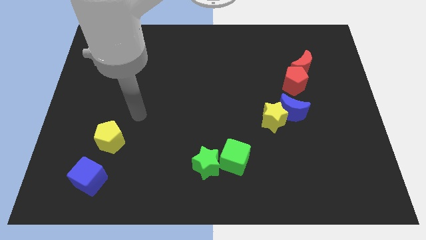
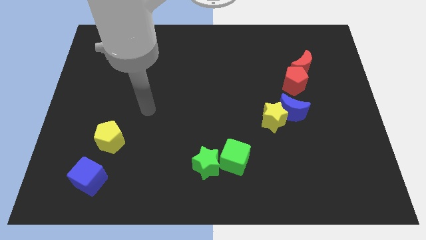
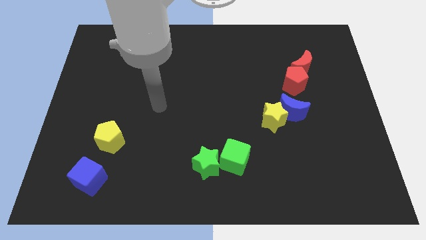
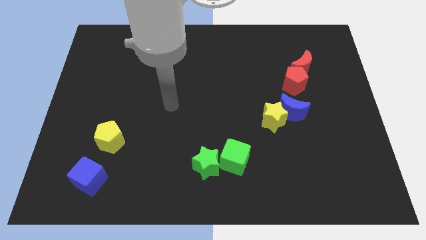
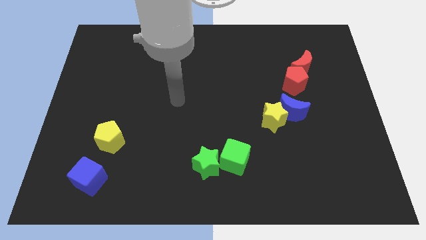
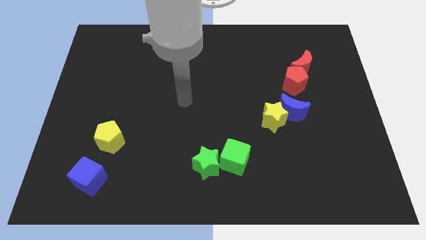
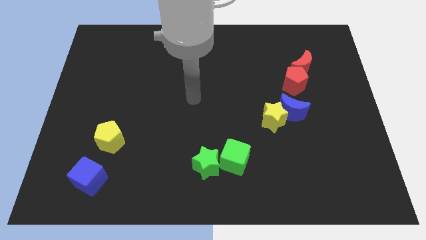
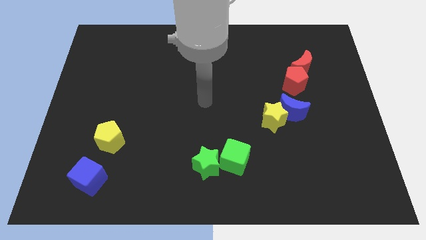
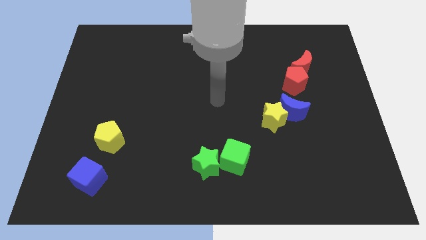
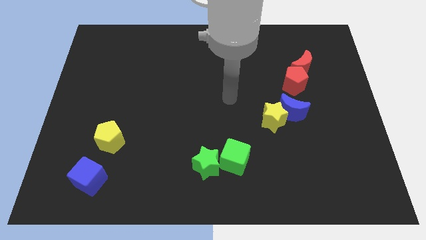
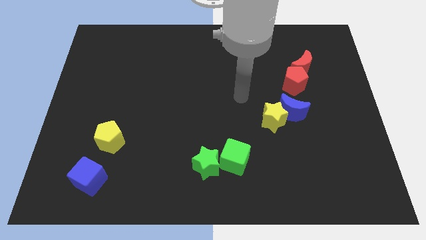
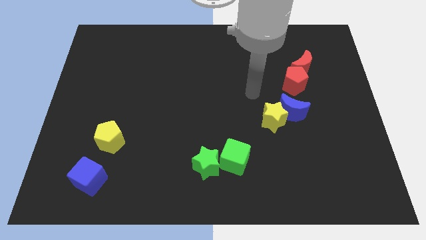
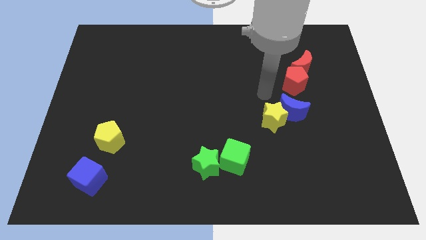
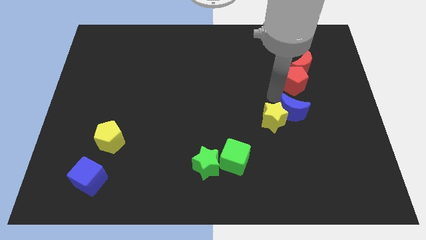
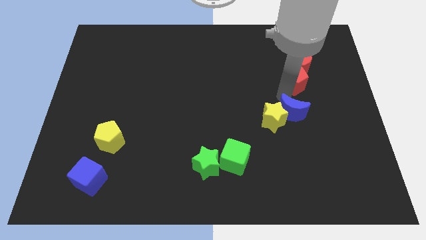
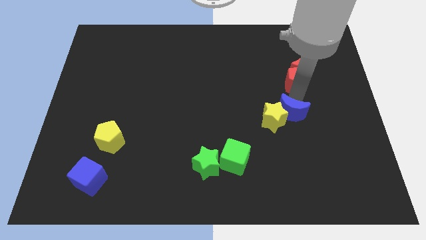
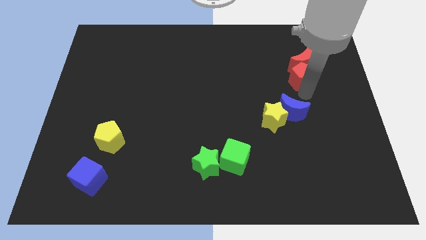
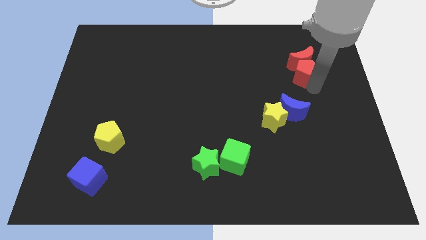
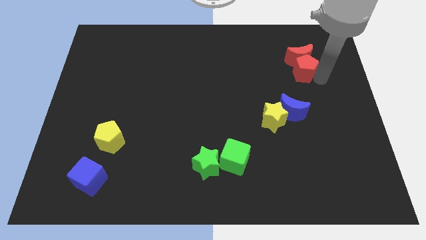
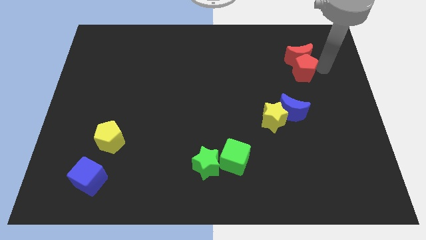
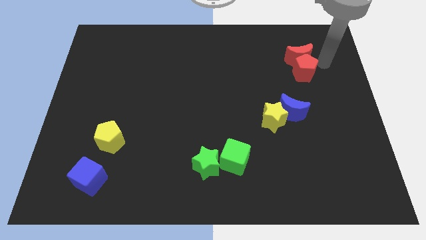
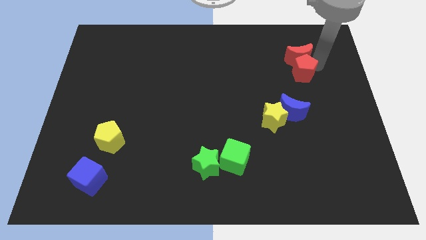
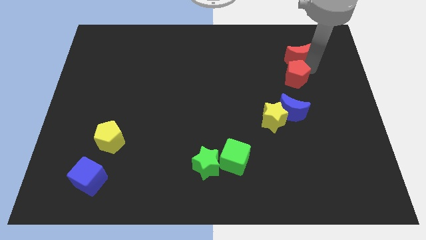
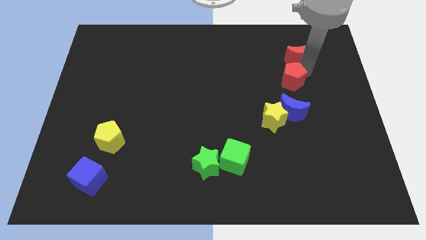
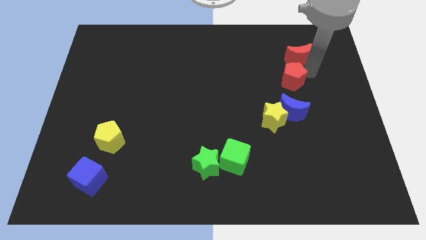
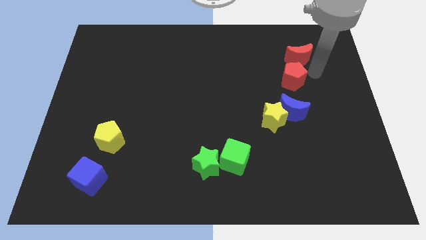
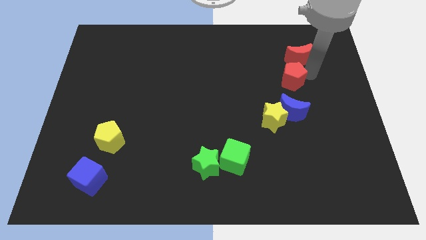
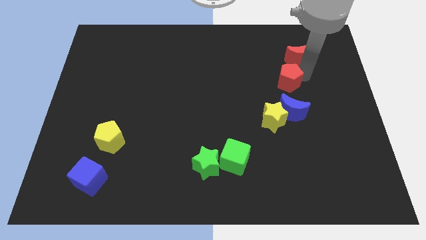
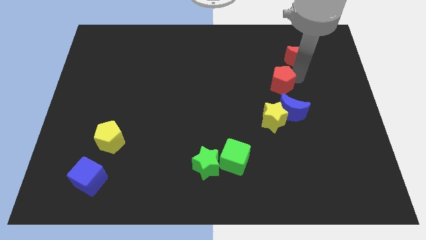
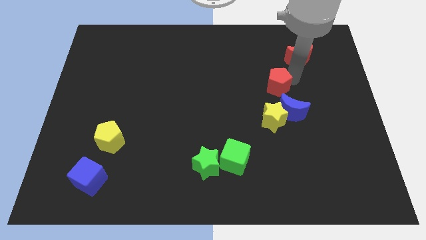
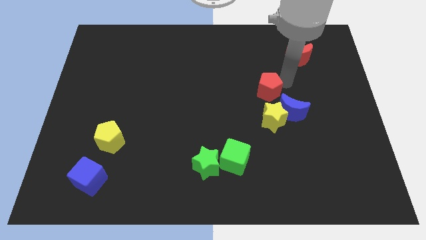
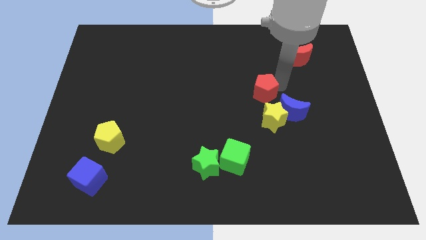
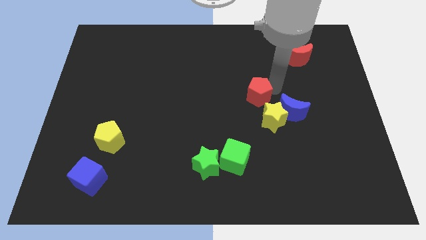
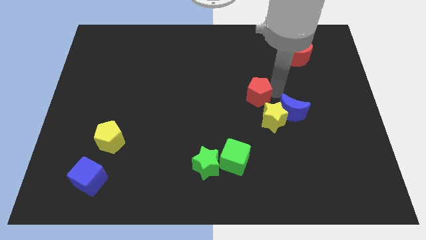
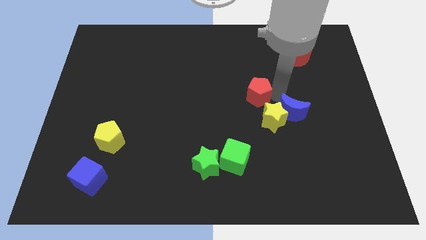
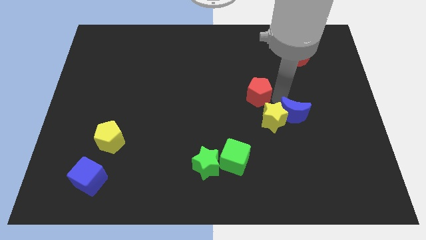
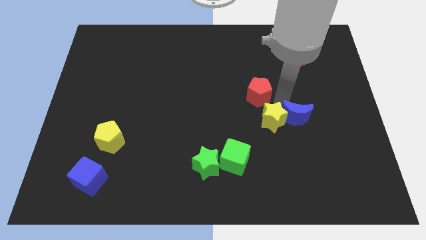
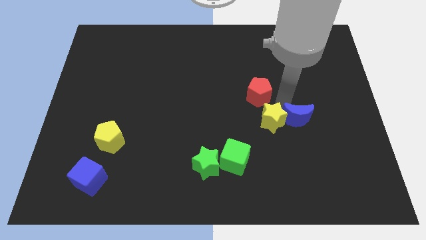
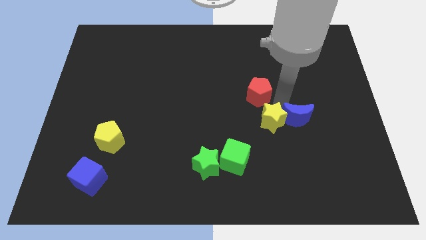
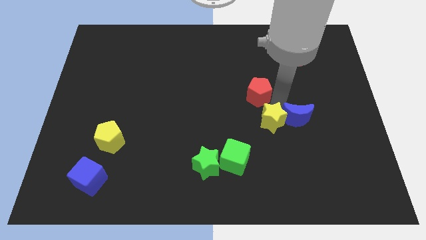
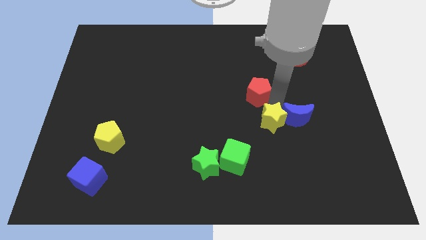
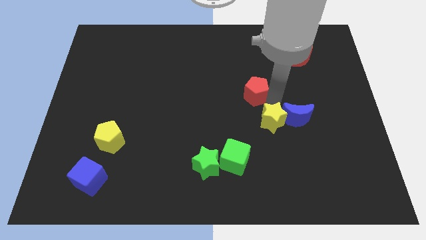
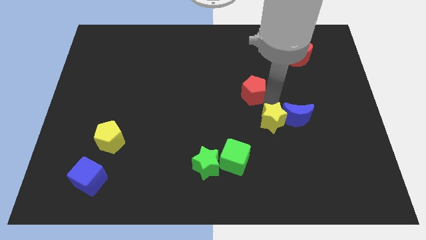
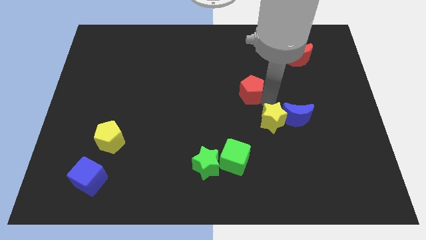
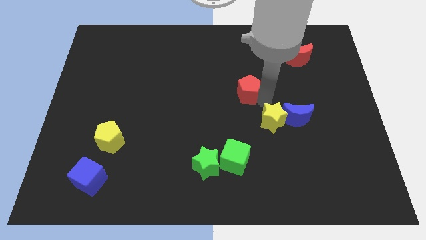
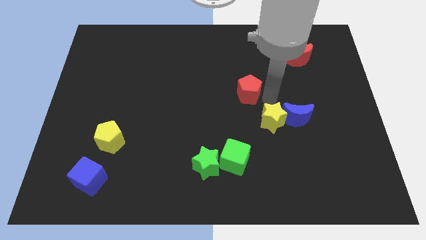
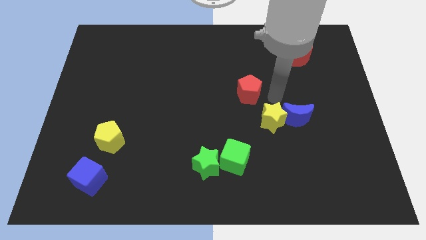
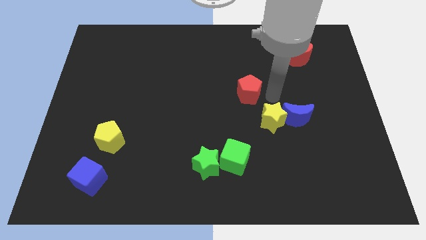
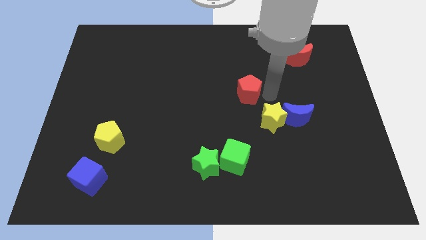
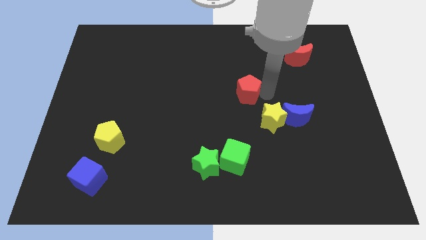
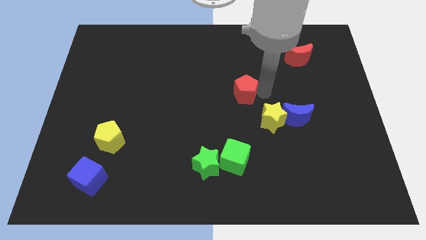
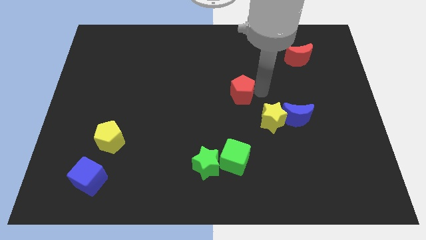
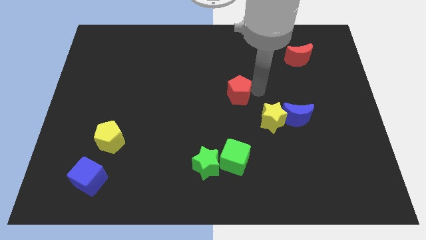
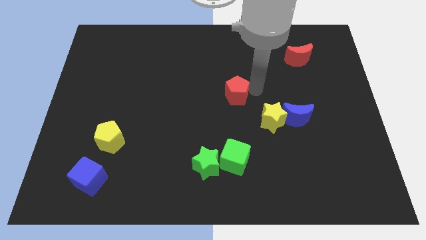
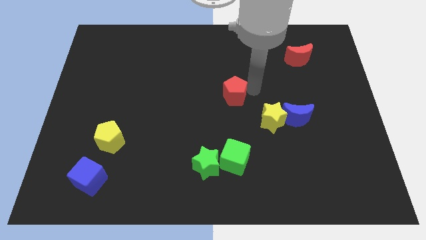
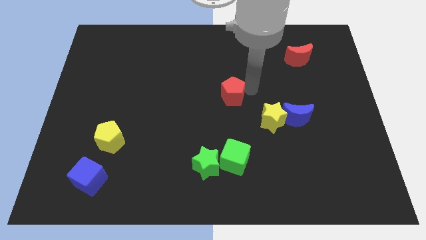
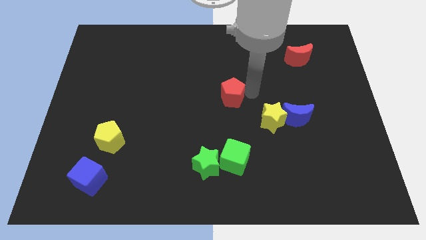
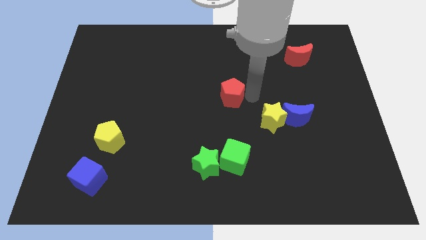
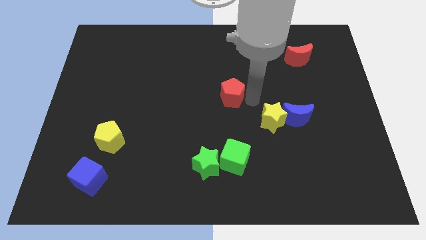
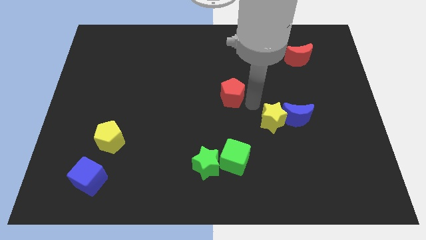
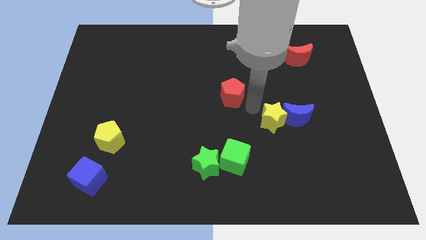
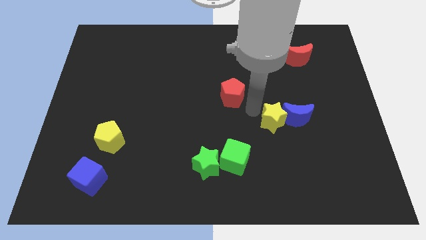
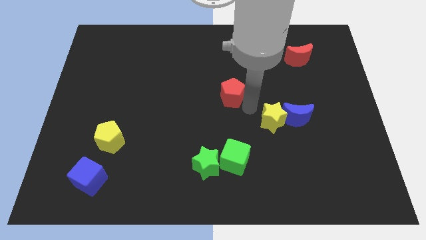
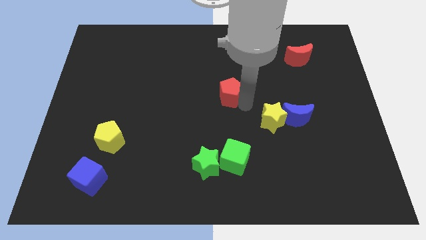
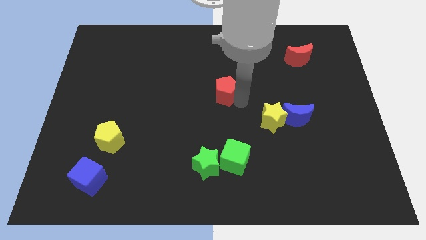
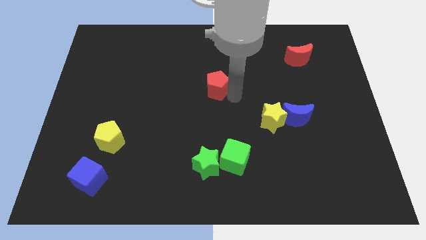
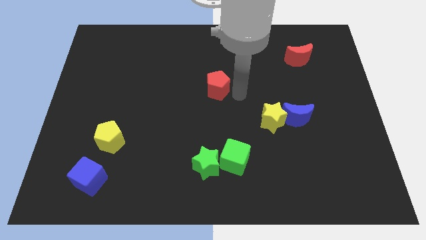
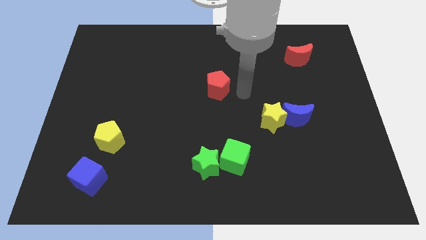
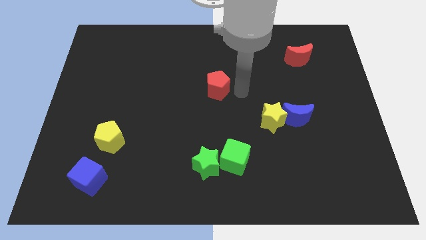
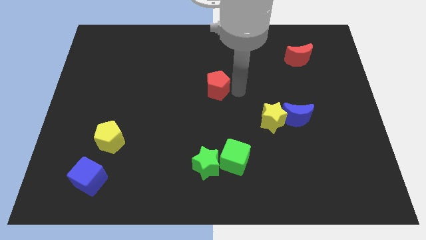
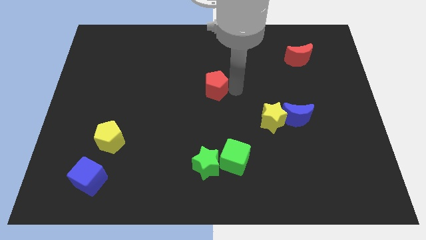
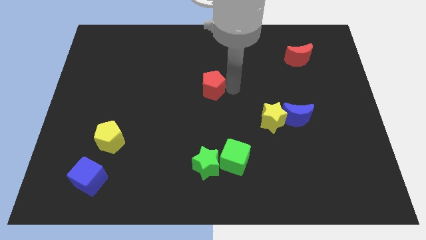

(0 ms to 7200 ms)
move the red pentagon left

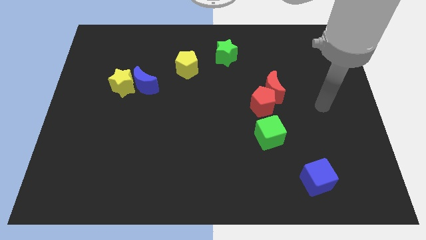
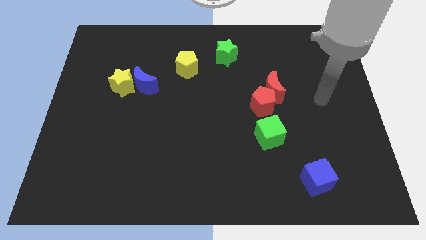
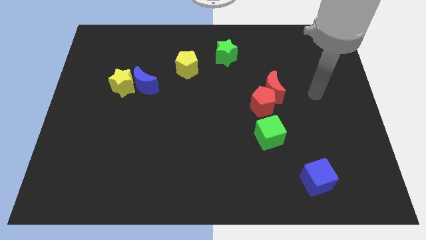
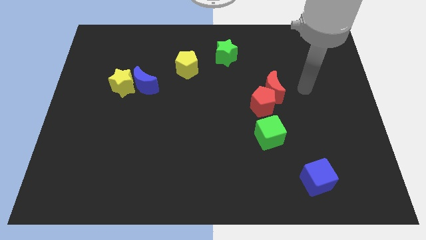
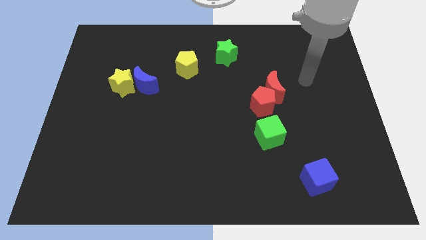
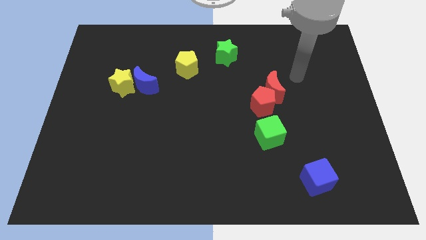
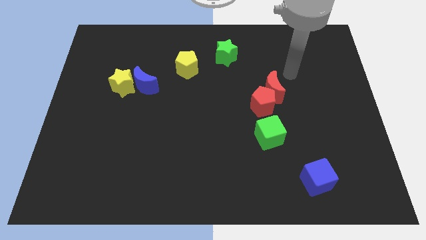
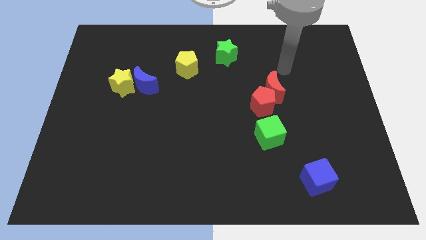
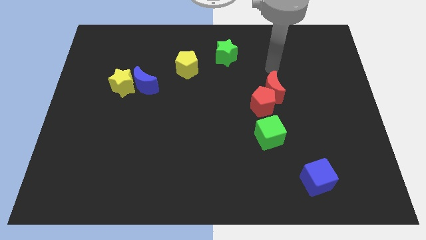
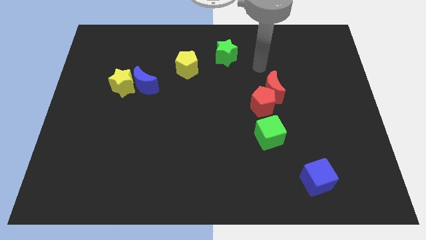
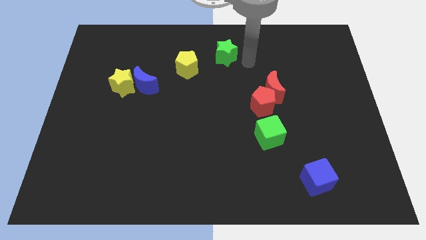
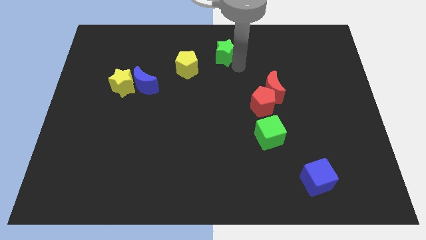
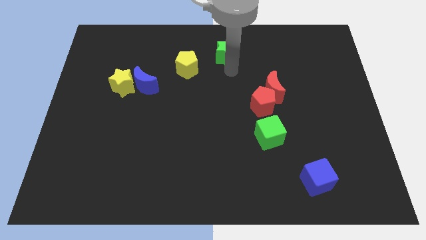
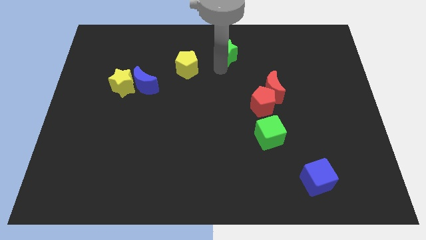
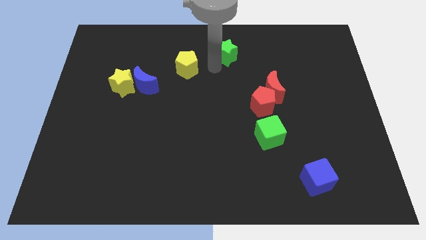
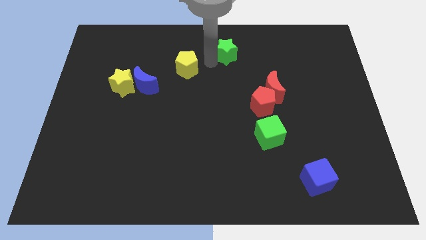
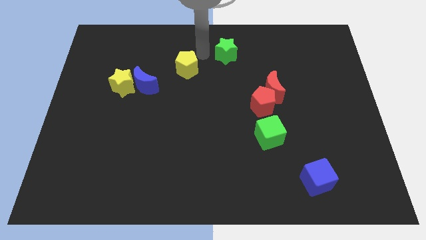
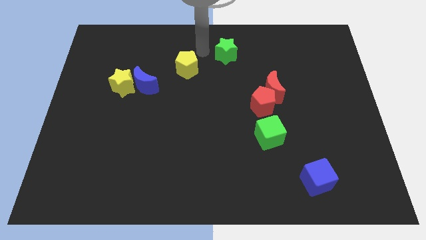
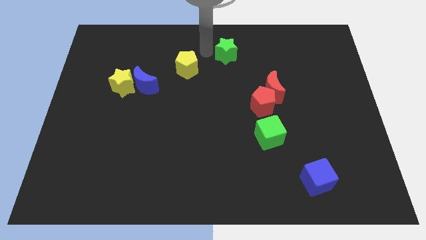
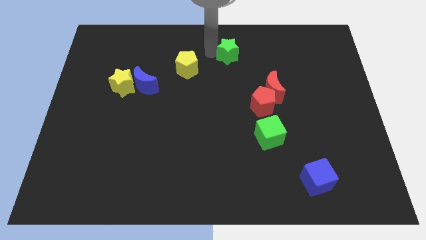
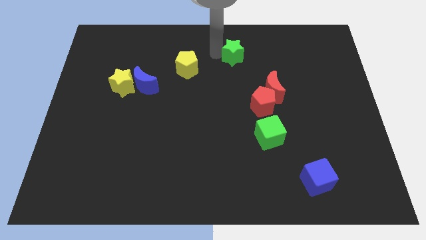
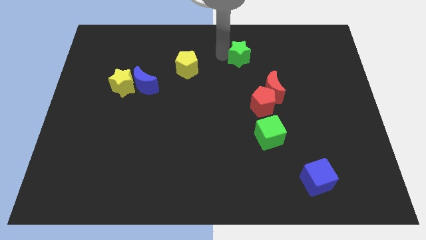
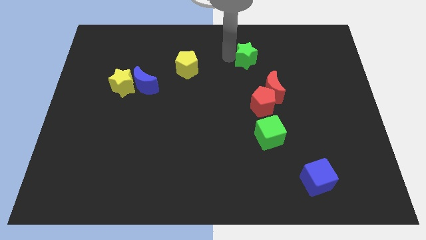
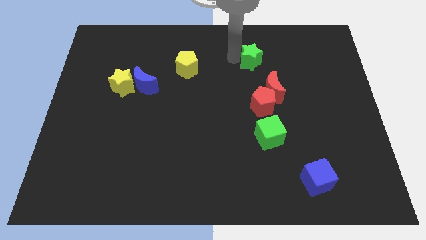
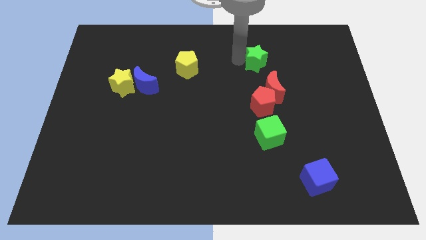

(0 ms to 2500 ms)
slightly slide the green star to the right
